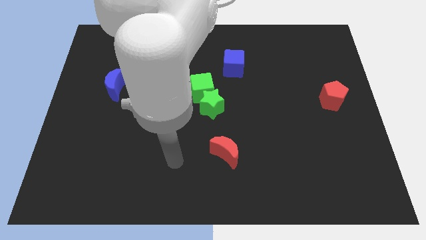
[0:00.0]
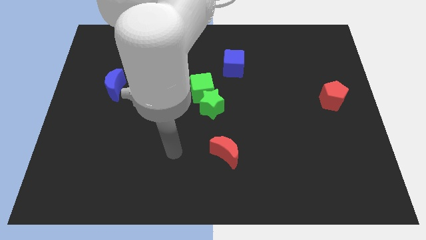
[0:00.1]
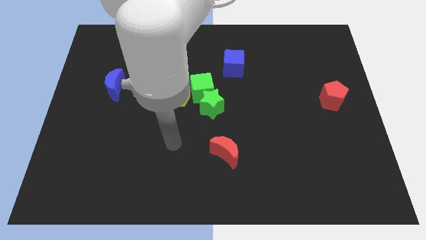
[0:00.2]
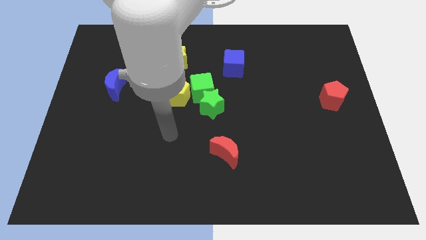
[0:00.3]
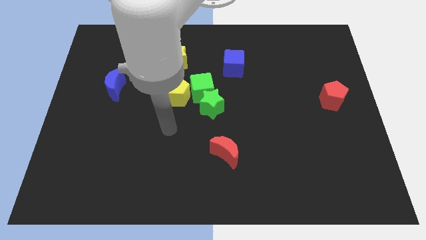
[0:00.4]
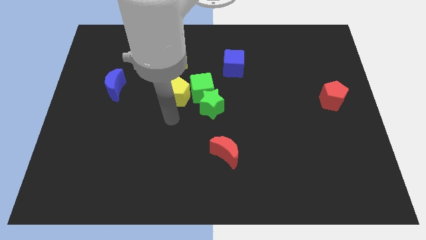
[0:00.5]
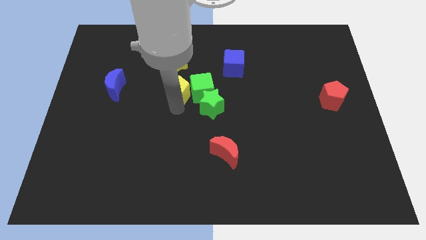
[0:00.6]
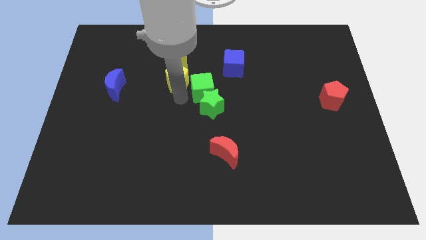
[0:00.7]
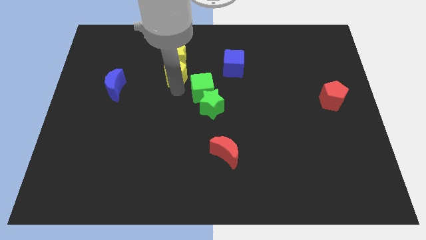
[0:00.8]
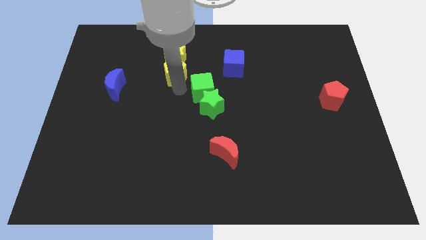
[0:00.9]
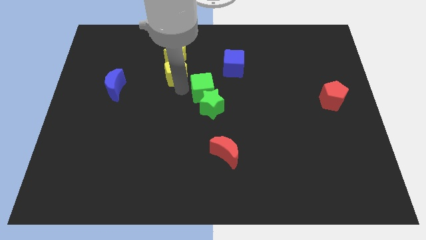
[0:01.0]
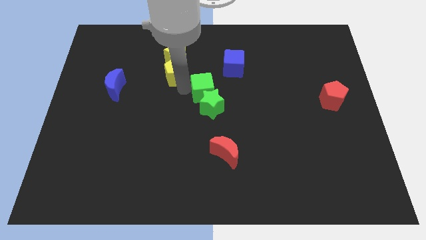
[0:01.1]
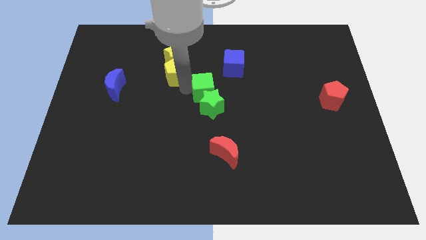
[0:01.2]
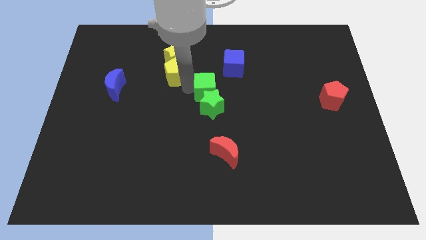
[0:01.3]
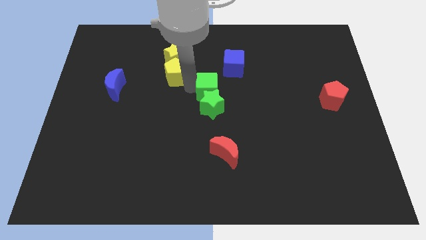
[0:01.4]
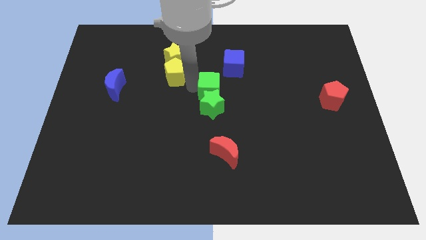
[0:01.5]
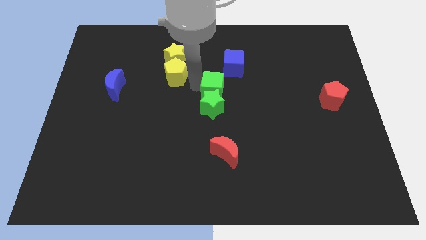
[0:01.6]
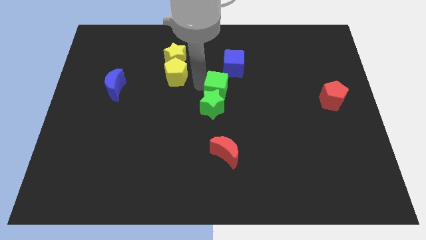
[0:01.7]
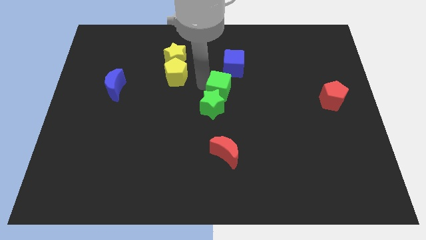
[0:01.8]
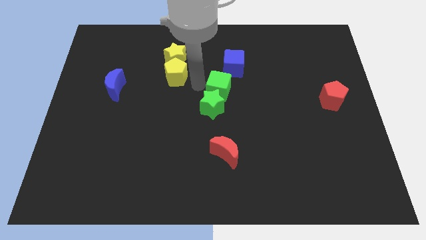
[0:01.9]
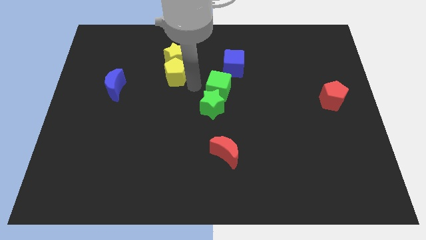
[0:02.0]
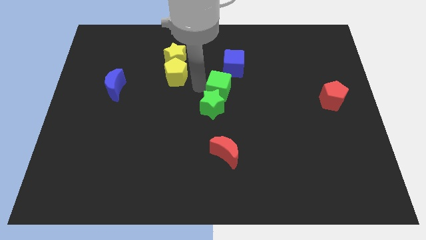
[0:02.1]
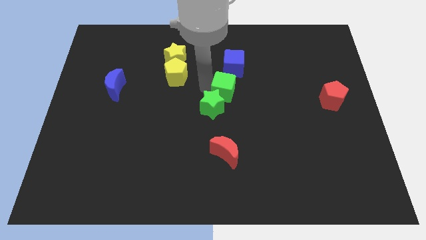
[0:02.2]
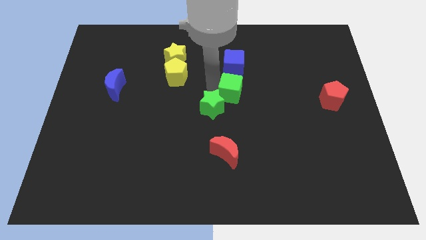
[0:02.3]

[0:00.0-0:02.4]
push the green cube right a bit

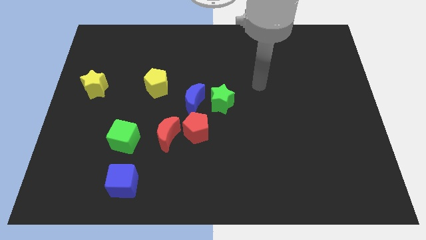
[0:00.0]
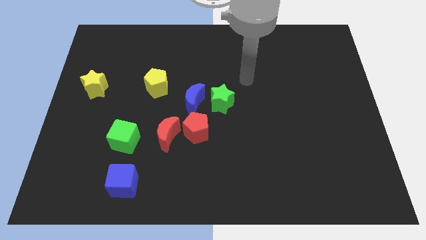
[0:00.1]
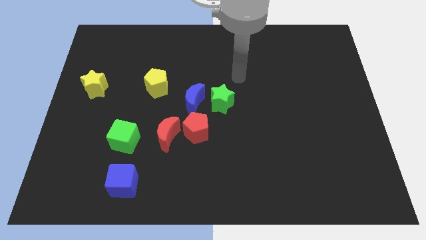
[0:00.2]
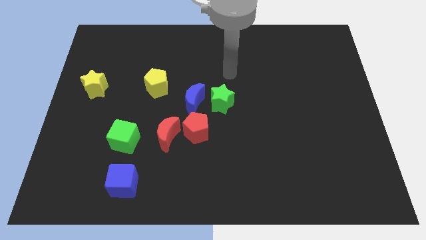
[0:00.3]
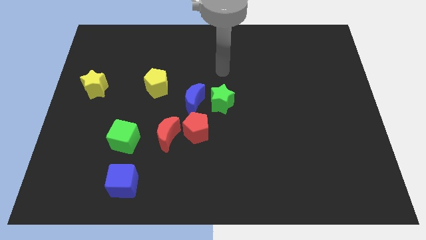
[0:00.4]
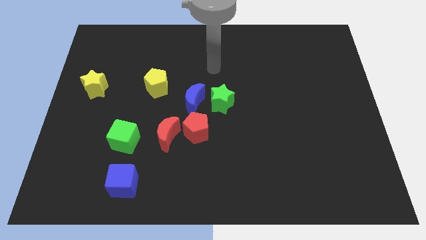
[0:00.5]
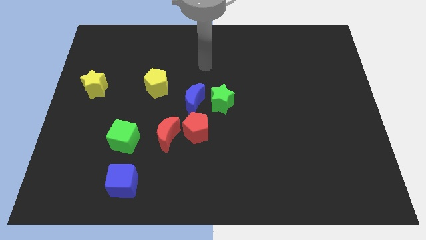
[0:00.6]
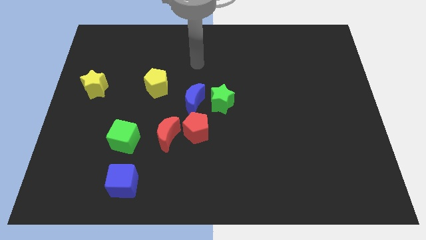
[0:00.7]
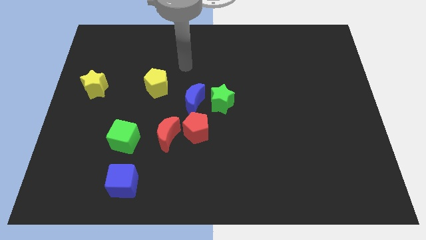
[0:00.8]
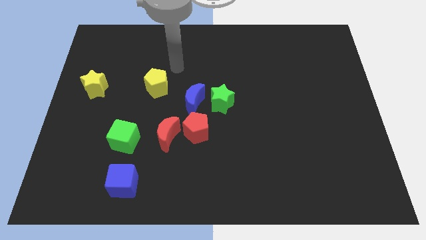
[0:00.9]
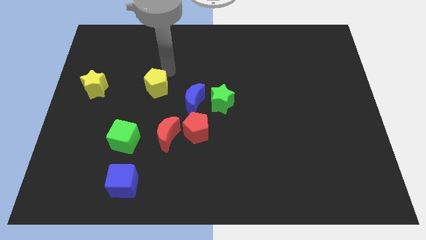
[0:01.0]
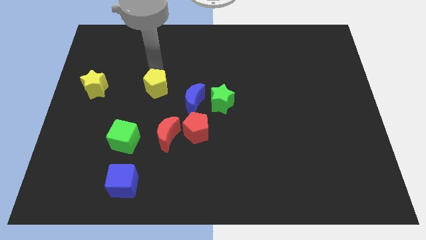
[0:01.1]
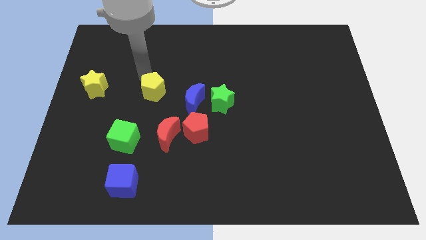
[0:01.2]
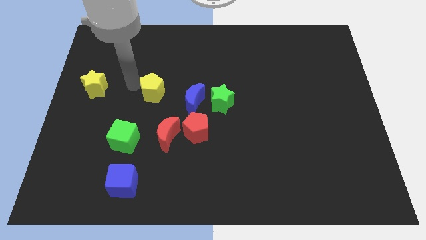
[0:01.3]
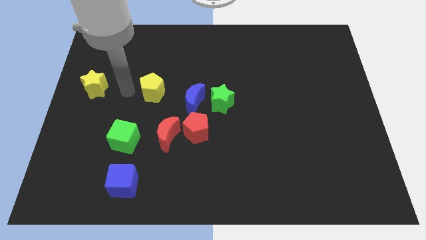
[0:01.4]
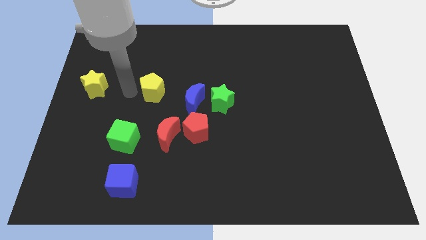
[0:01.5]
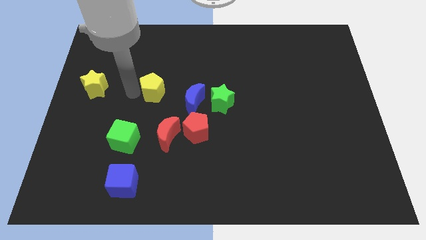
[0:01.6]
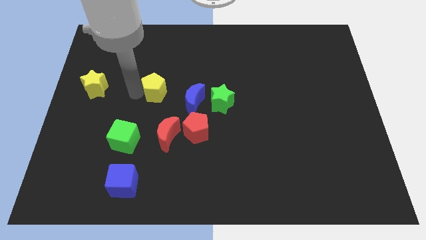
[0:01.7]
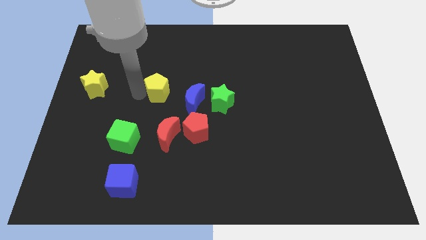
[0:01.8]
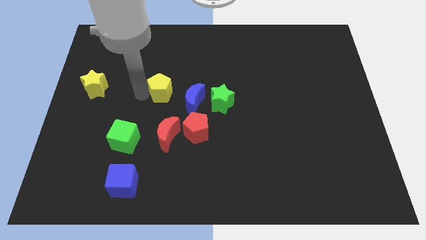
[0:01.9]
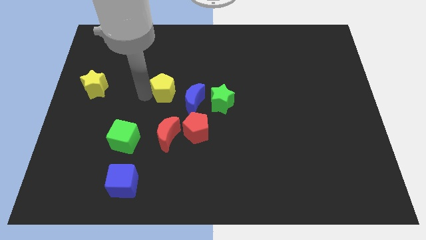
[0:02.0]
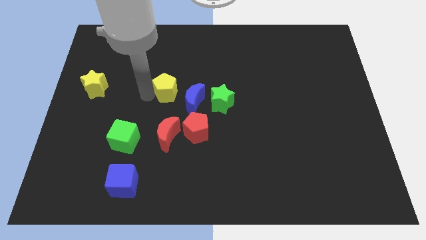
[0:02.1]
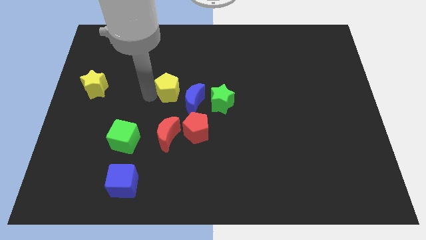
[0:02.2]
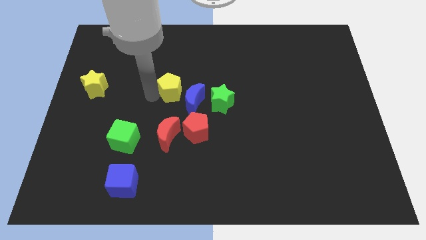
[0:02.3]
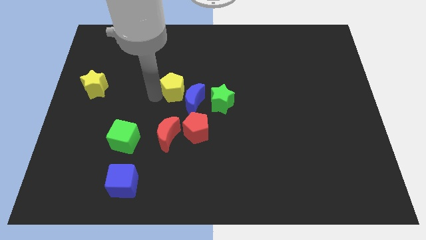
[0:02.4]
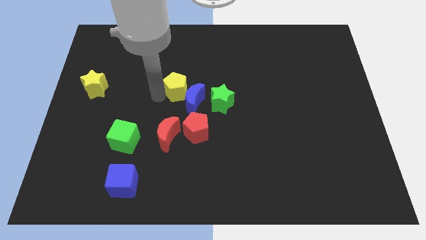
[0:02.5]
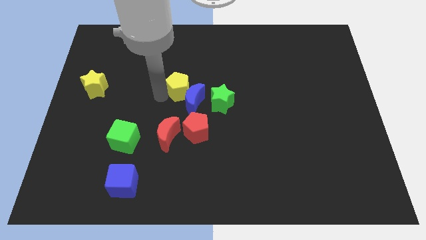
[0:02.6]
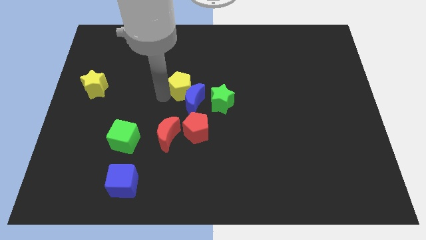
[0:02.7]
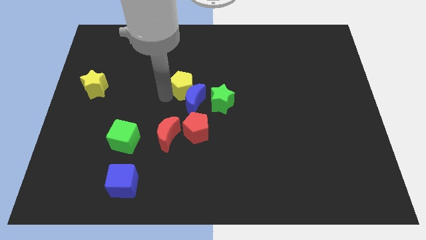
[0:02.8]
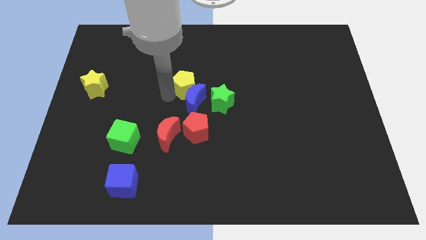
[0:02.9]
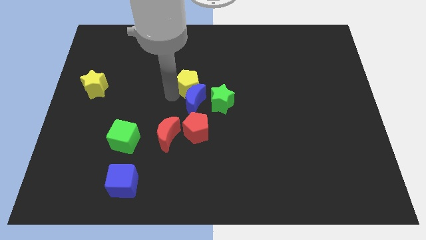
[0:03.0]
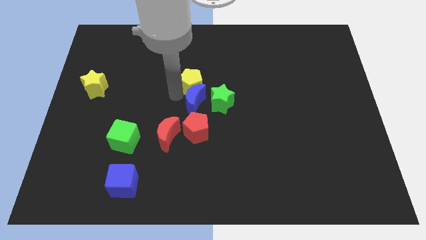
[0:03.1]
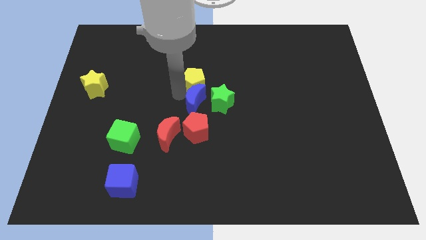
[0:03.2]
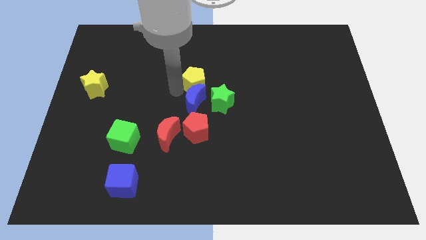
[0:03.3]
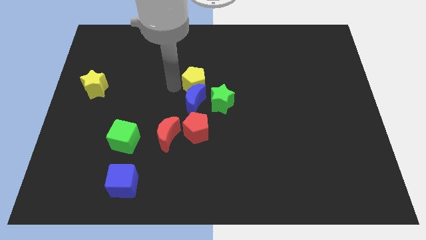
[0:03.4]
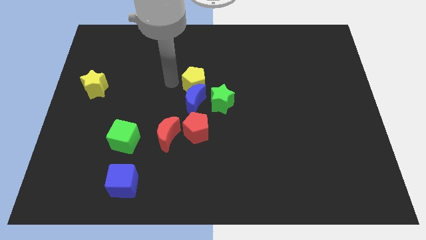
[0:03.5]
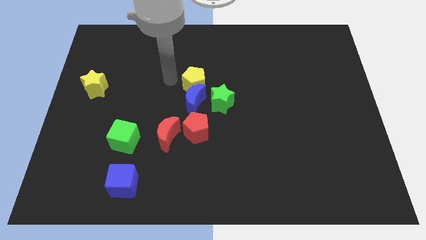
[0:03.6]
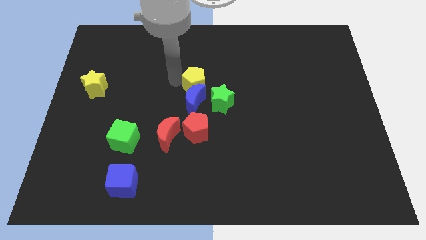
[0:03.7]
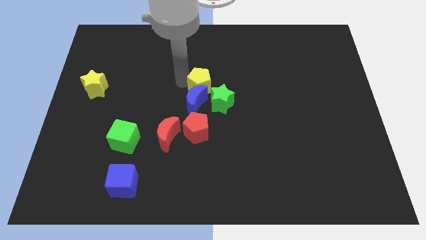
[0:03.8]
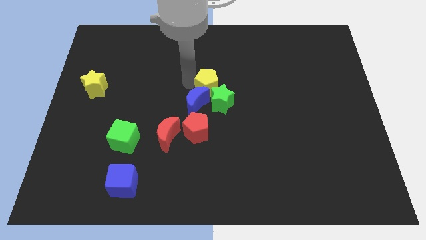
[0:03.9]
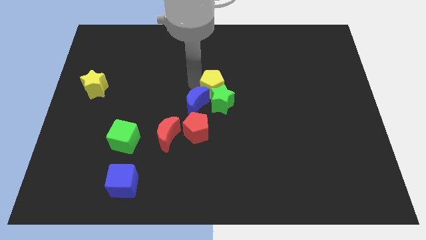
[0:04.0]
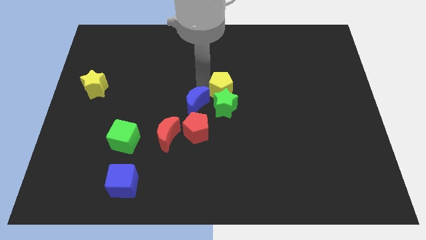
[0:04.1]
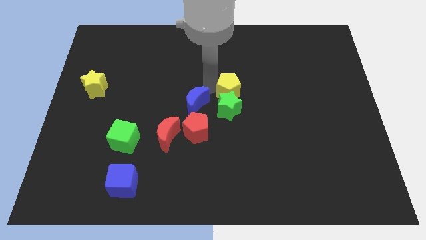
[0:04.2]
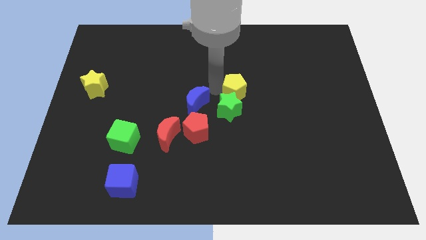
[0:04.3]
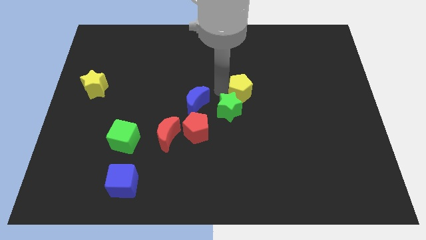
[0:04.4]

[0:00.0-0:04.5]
move the yellow pentagon to the right

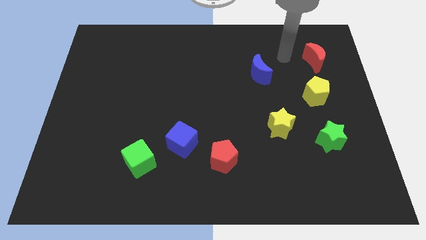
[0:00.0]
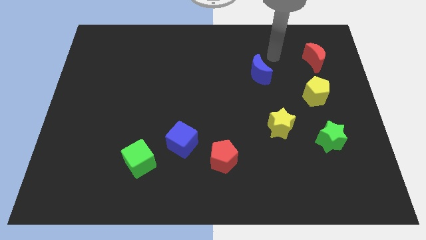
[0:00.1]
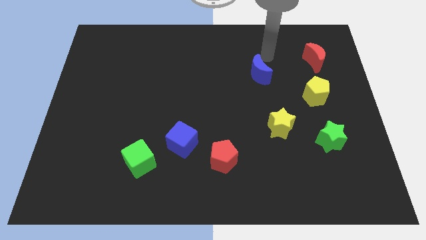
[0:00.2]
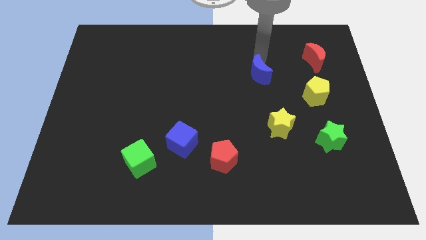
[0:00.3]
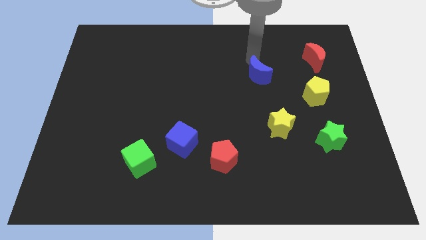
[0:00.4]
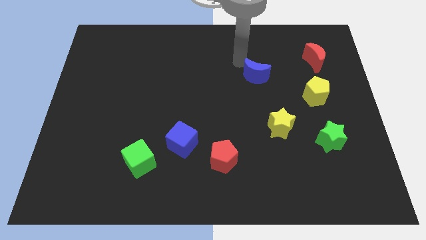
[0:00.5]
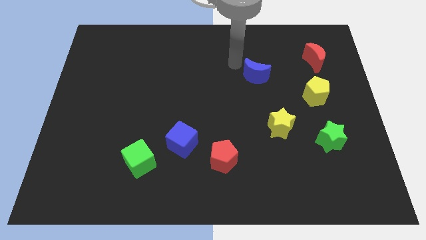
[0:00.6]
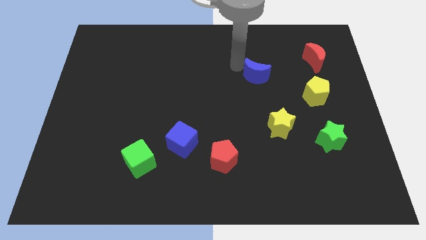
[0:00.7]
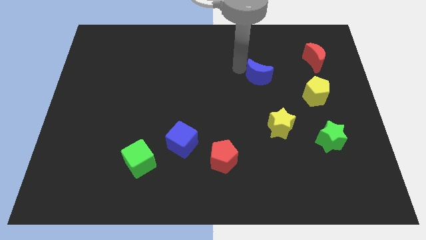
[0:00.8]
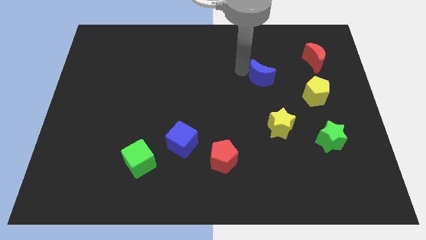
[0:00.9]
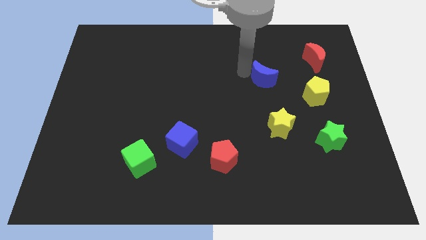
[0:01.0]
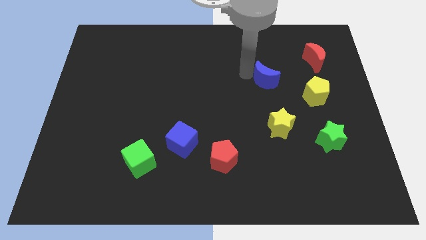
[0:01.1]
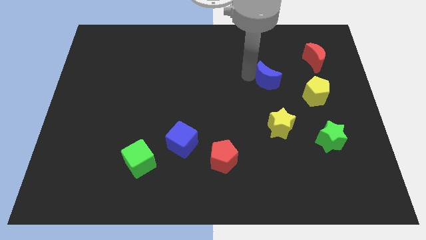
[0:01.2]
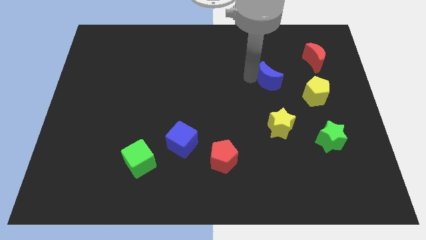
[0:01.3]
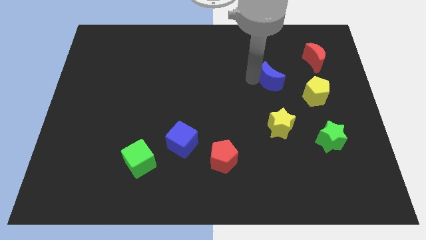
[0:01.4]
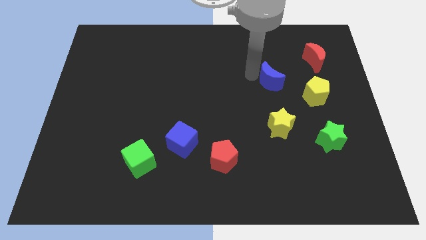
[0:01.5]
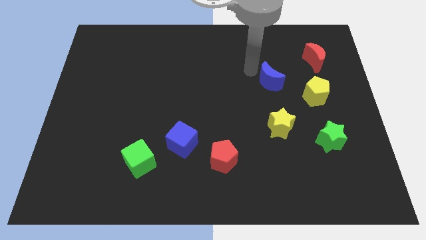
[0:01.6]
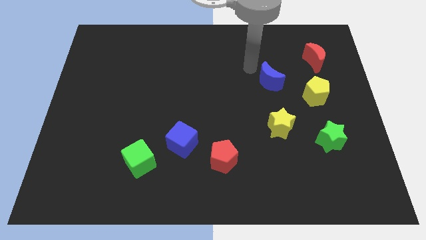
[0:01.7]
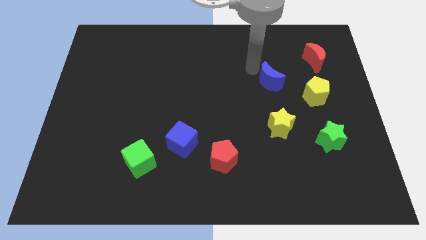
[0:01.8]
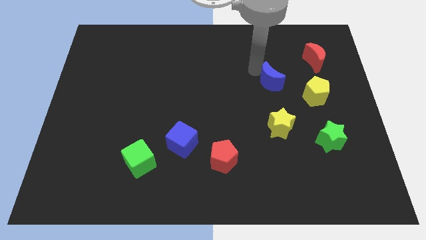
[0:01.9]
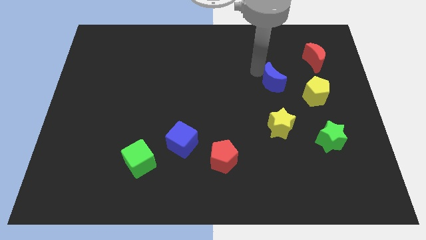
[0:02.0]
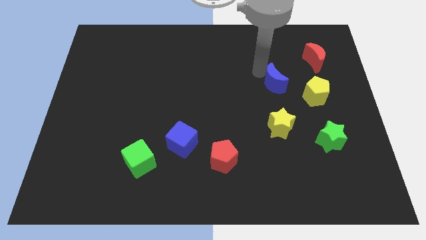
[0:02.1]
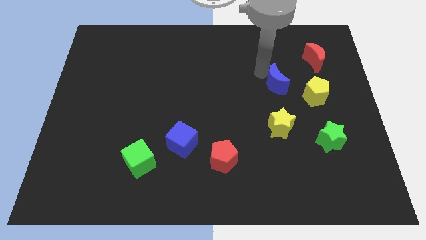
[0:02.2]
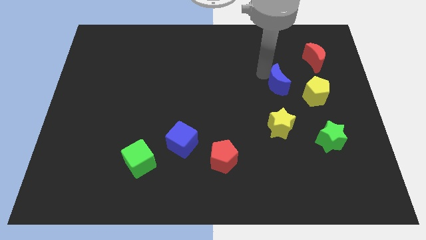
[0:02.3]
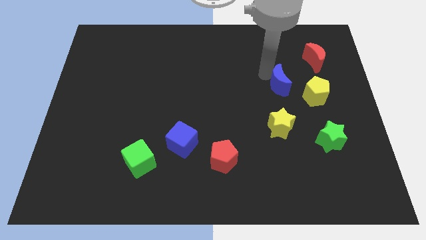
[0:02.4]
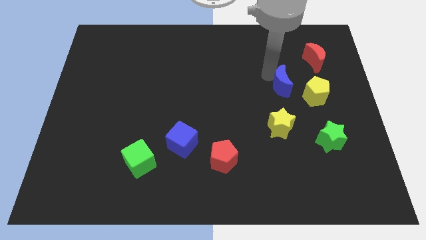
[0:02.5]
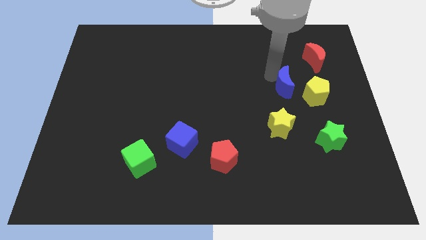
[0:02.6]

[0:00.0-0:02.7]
slightly move the blue moon down and then to the right
